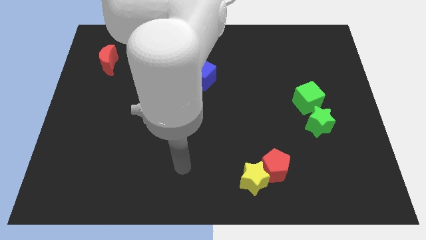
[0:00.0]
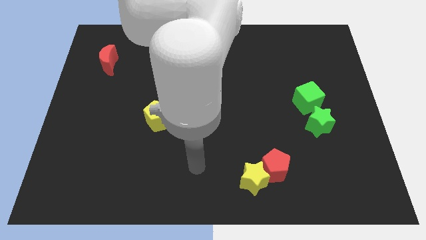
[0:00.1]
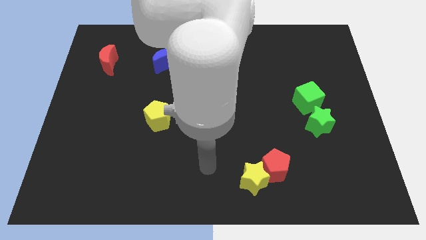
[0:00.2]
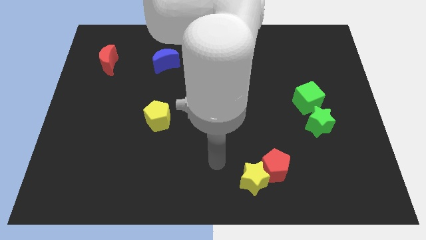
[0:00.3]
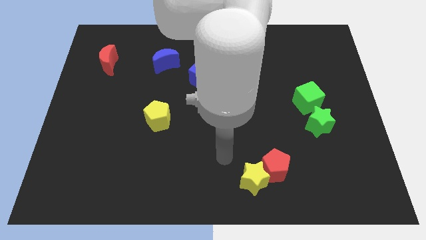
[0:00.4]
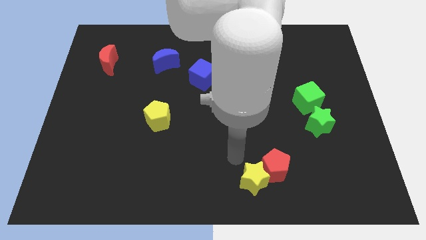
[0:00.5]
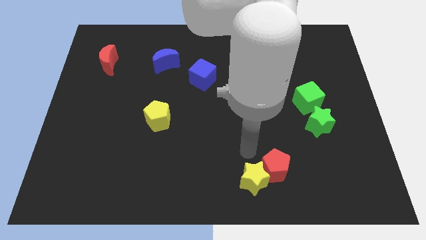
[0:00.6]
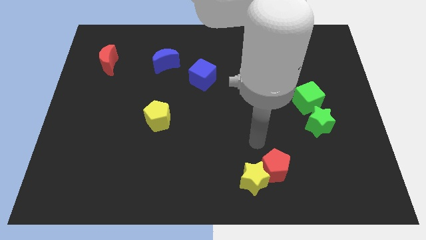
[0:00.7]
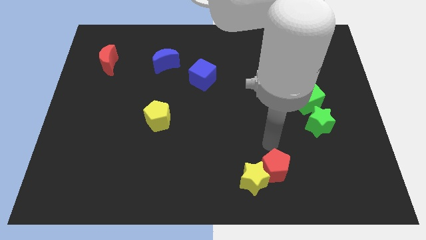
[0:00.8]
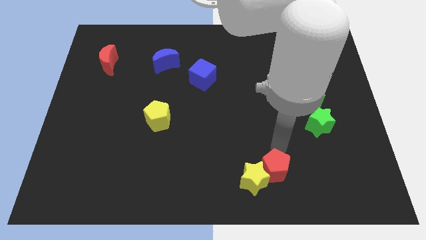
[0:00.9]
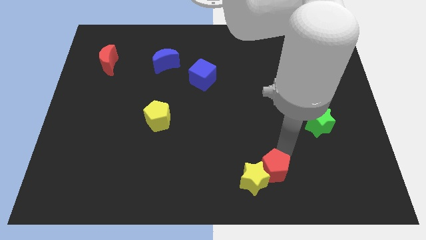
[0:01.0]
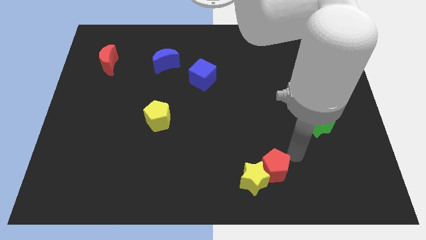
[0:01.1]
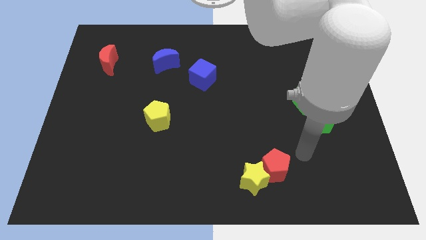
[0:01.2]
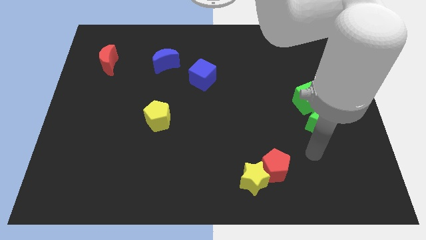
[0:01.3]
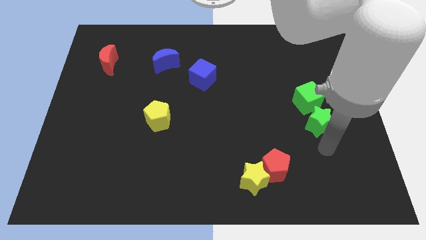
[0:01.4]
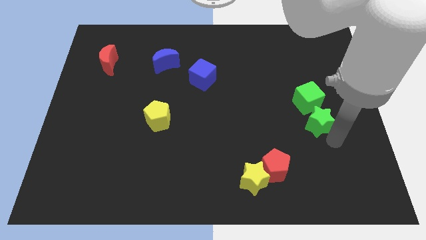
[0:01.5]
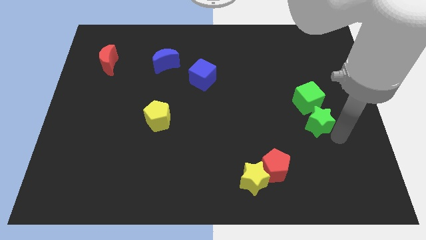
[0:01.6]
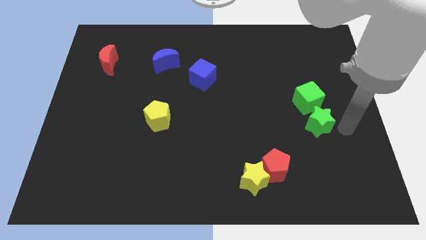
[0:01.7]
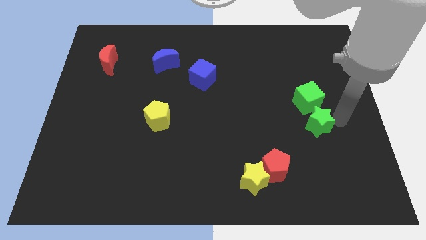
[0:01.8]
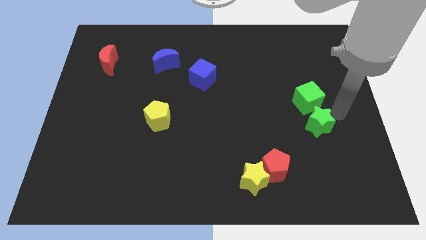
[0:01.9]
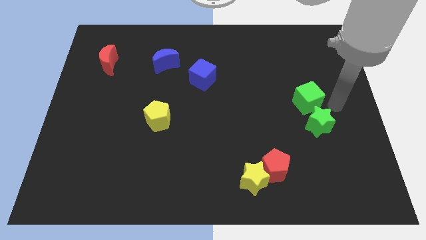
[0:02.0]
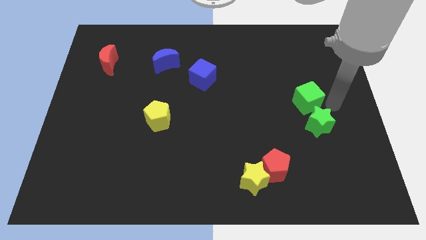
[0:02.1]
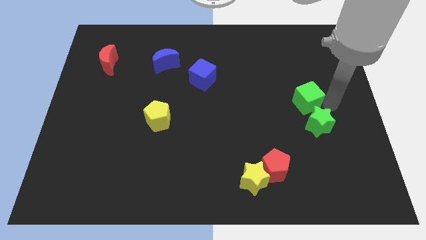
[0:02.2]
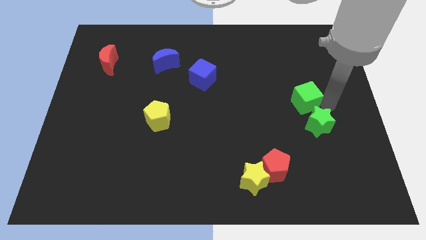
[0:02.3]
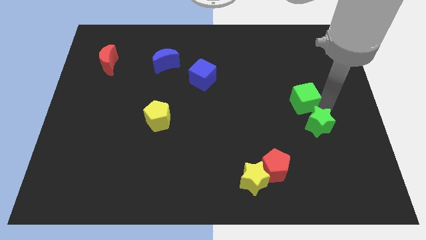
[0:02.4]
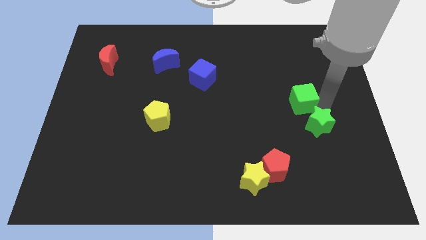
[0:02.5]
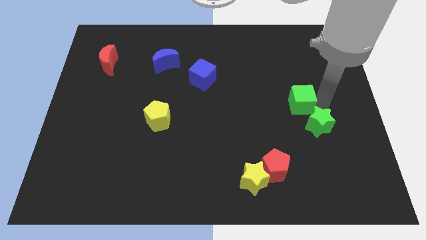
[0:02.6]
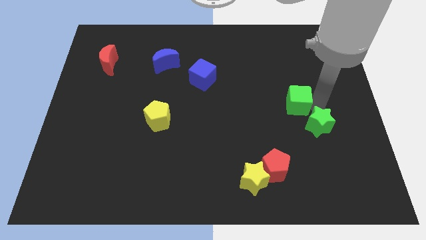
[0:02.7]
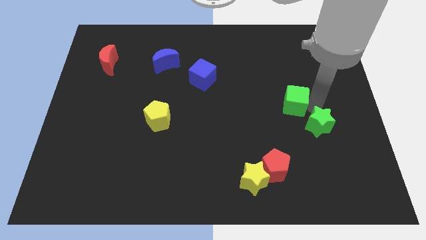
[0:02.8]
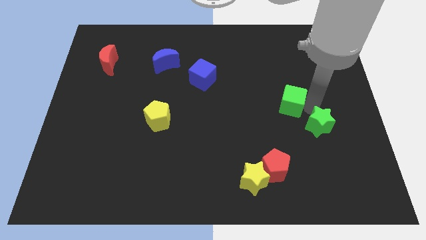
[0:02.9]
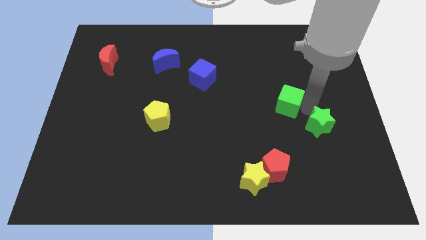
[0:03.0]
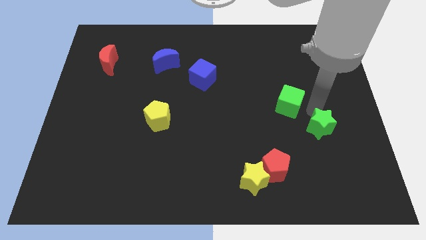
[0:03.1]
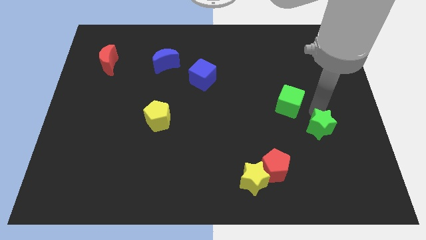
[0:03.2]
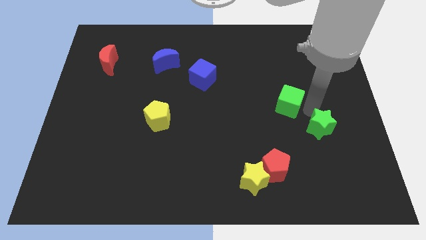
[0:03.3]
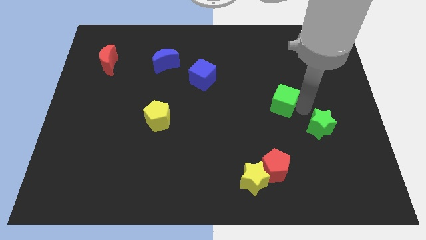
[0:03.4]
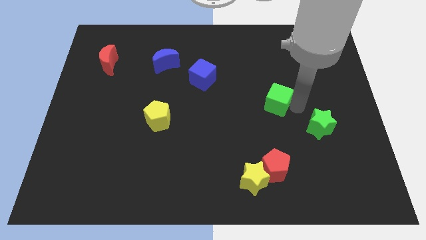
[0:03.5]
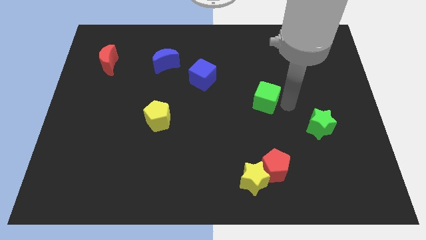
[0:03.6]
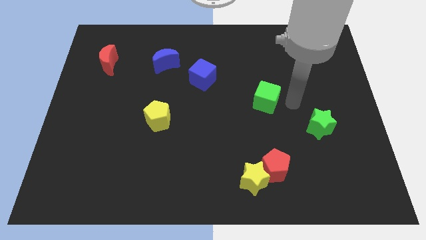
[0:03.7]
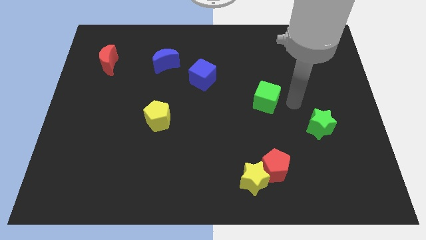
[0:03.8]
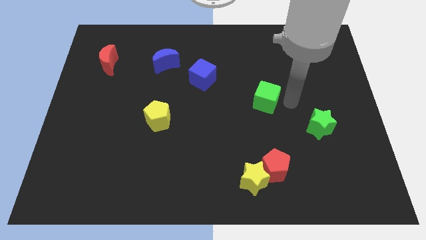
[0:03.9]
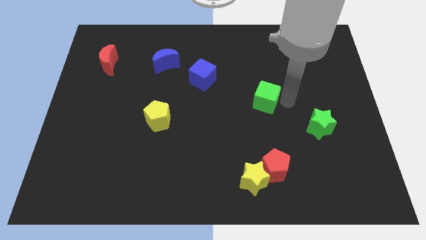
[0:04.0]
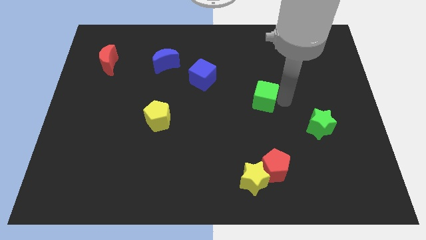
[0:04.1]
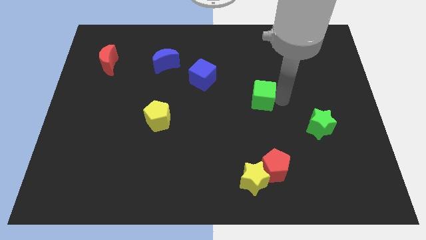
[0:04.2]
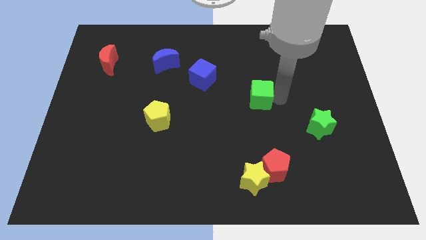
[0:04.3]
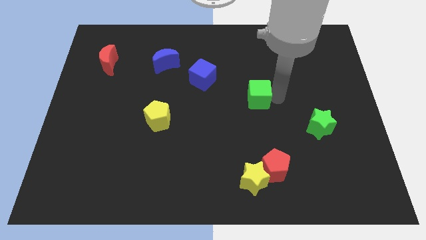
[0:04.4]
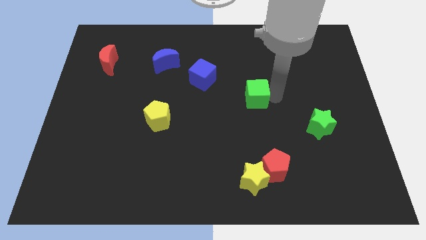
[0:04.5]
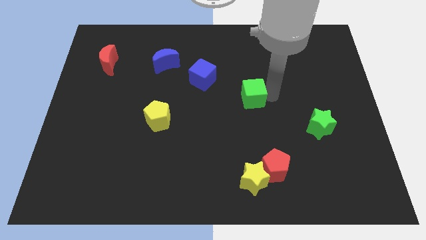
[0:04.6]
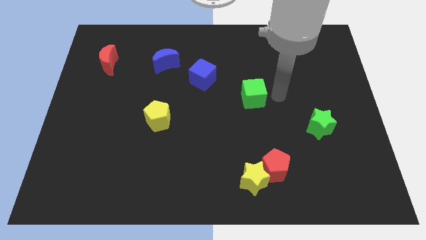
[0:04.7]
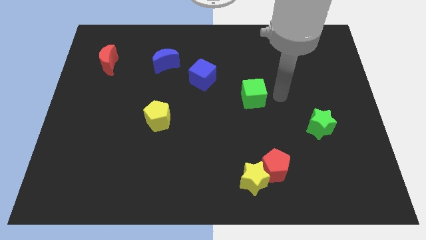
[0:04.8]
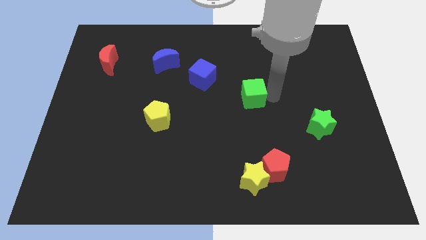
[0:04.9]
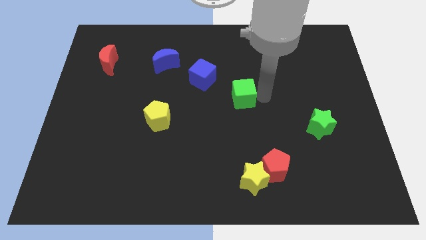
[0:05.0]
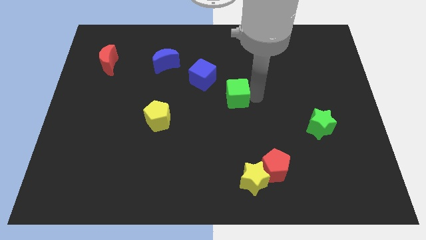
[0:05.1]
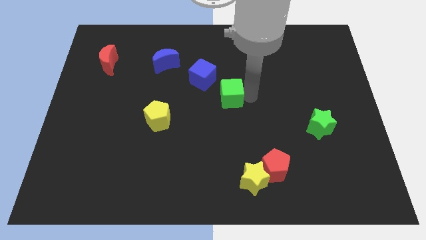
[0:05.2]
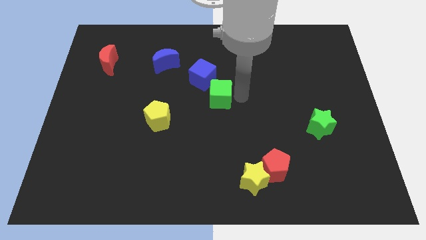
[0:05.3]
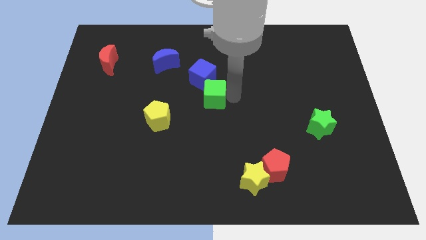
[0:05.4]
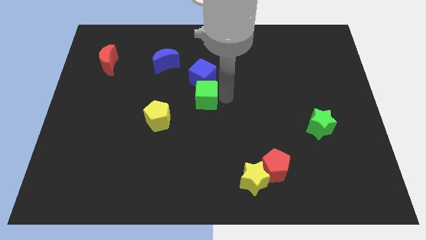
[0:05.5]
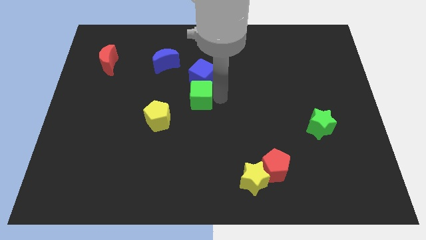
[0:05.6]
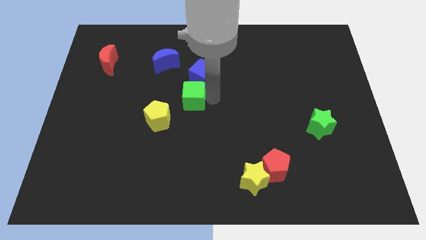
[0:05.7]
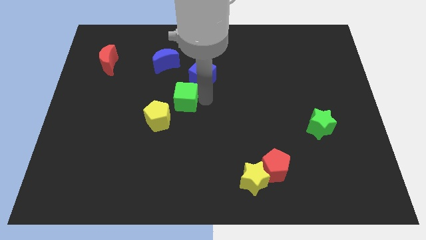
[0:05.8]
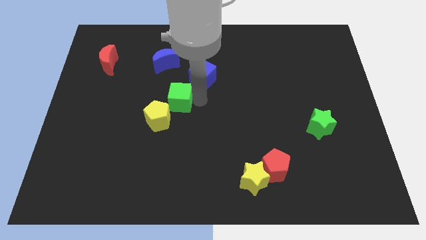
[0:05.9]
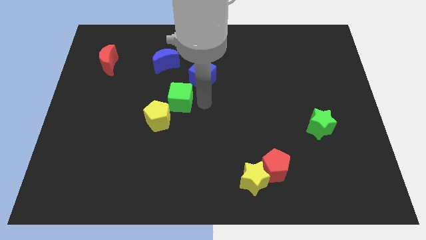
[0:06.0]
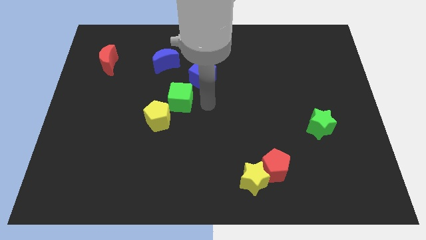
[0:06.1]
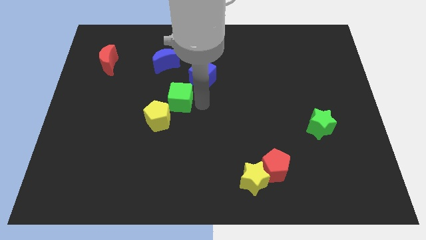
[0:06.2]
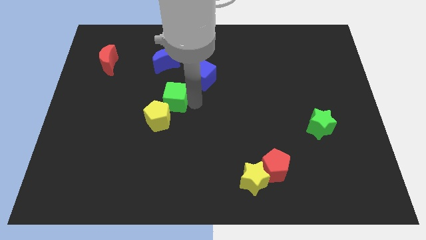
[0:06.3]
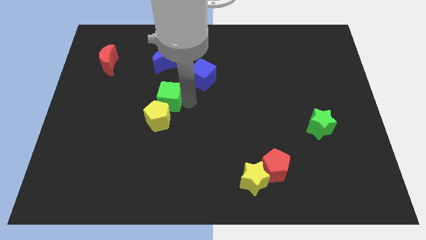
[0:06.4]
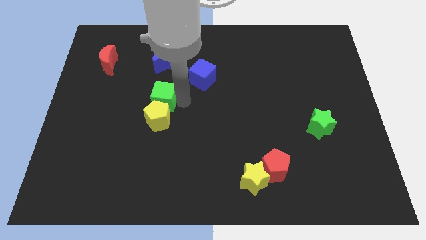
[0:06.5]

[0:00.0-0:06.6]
push the green cube to the top left of the yellow pentagon

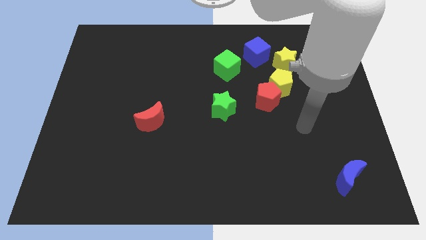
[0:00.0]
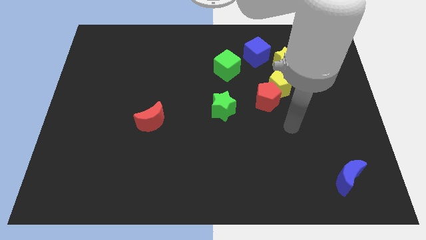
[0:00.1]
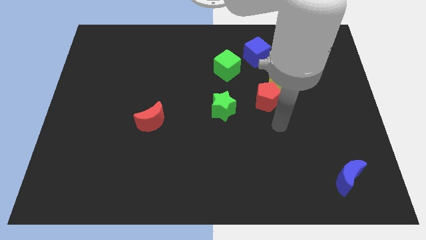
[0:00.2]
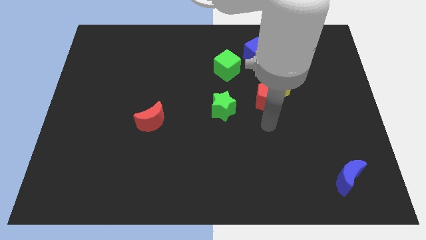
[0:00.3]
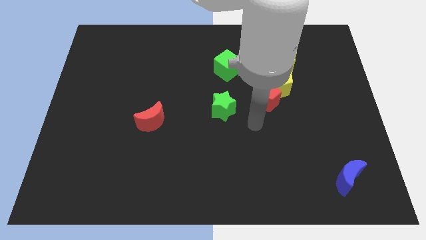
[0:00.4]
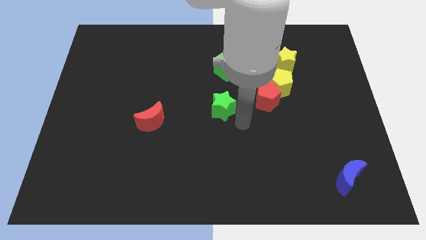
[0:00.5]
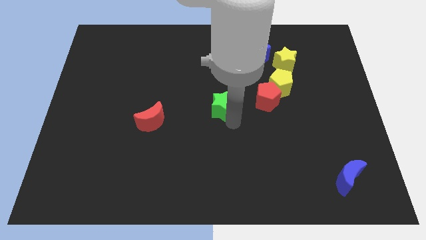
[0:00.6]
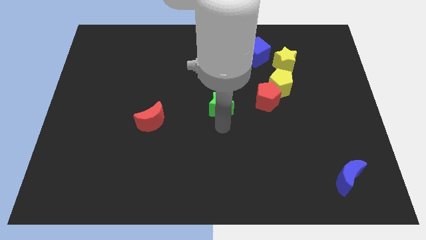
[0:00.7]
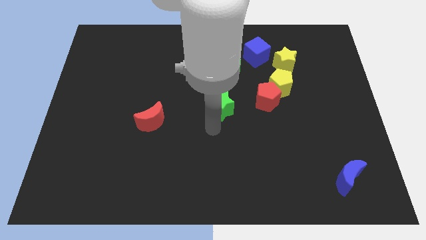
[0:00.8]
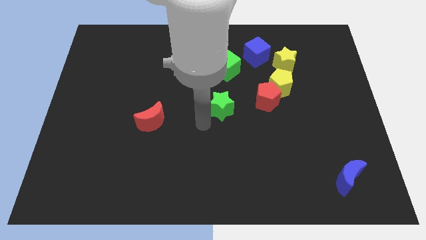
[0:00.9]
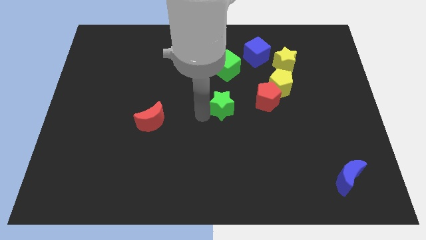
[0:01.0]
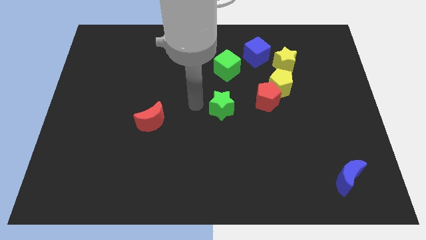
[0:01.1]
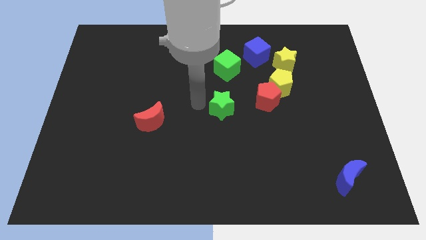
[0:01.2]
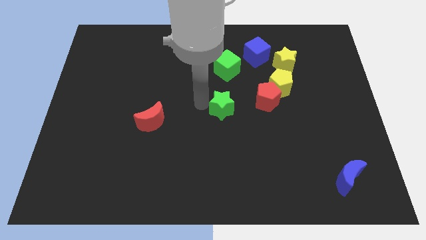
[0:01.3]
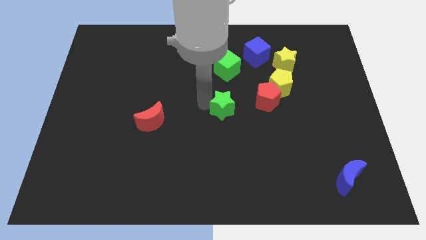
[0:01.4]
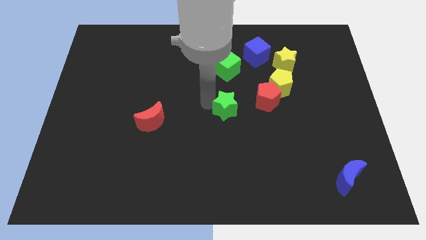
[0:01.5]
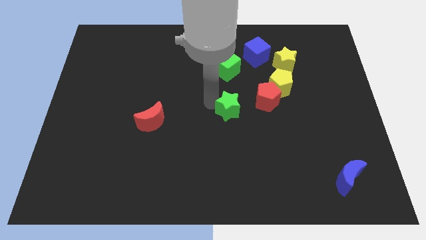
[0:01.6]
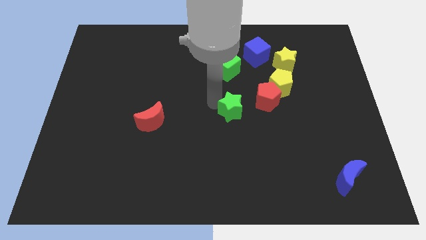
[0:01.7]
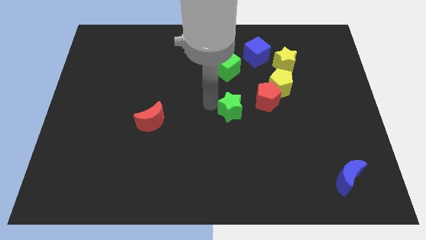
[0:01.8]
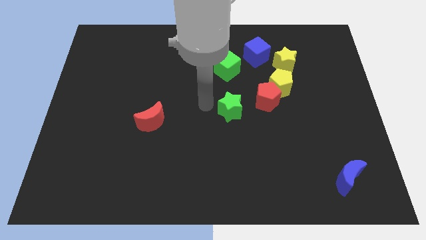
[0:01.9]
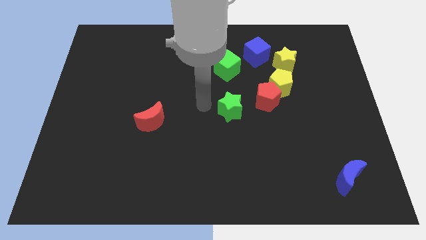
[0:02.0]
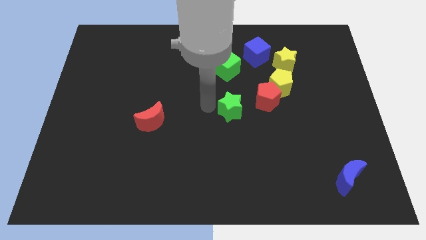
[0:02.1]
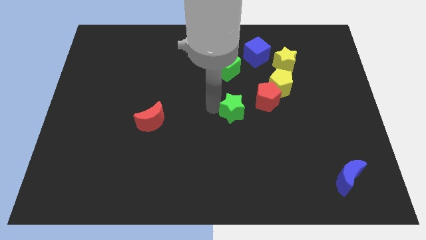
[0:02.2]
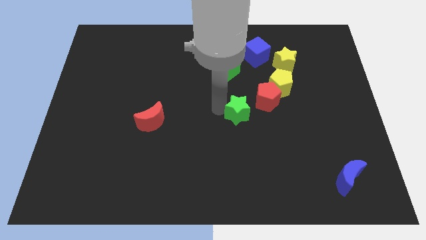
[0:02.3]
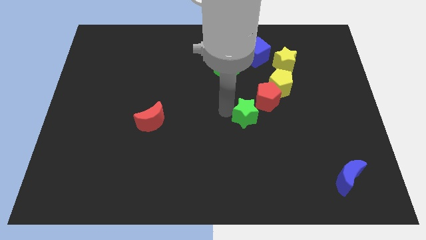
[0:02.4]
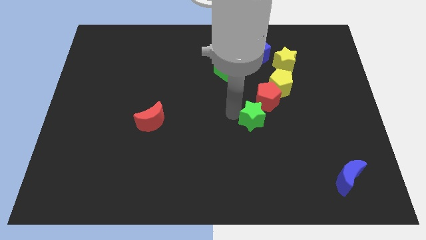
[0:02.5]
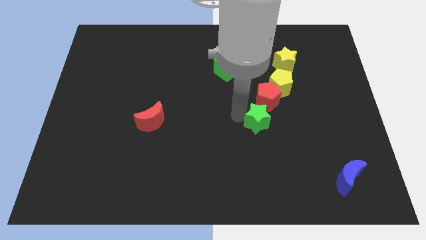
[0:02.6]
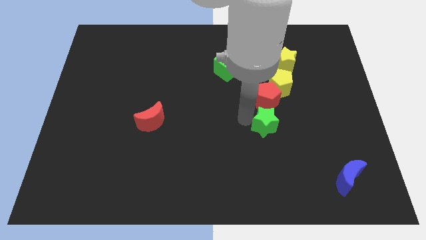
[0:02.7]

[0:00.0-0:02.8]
move the green star to the bottom of the yellow pentagon
